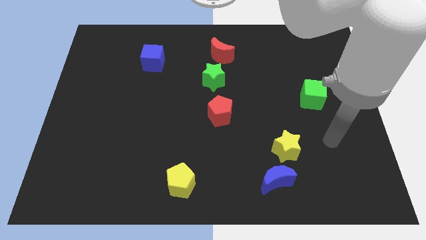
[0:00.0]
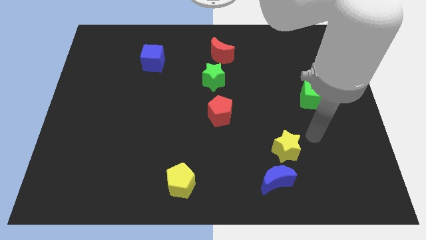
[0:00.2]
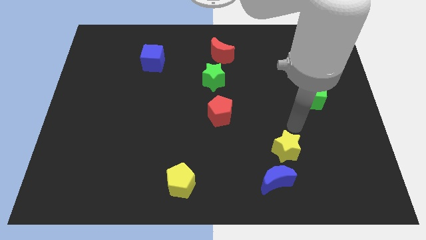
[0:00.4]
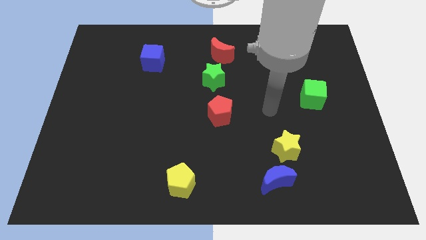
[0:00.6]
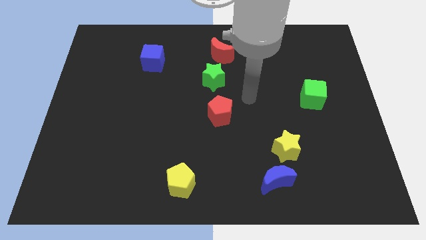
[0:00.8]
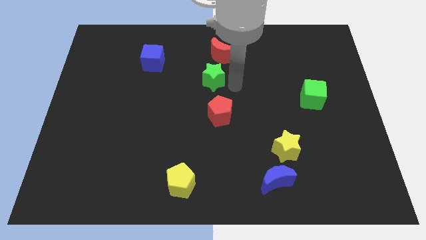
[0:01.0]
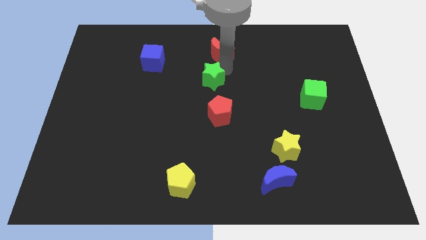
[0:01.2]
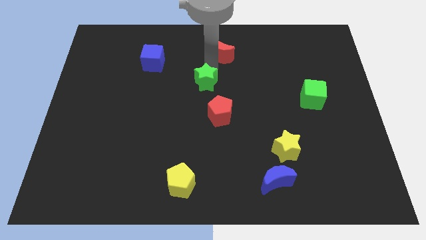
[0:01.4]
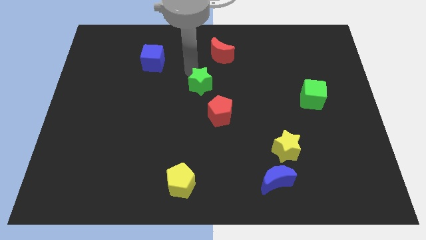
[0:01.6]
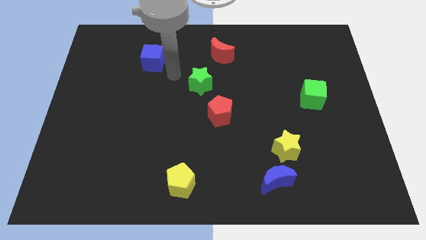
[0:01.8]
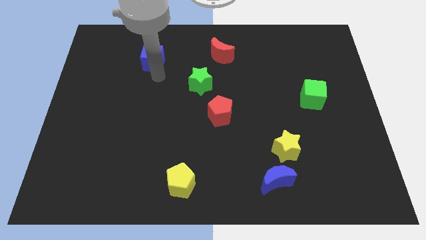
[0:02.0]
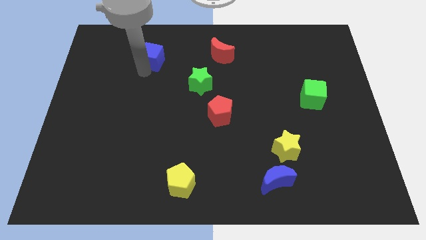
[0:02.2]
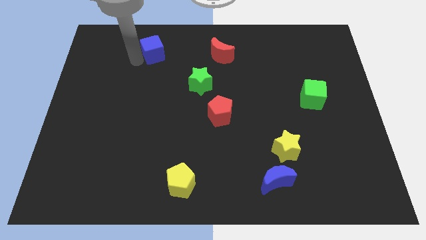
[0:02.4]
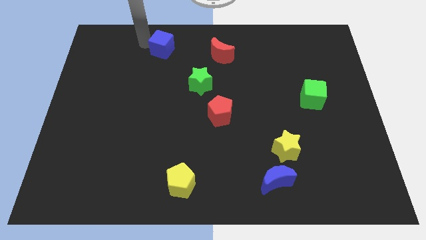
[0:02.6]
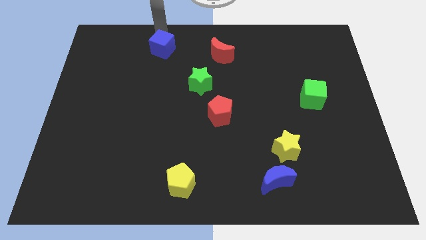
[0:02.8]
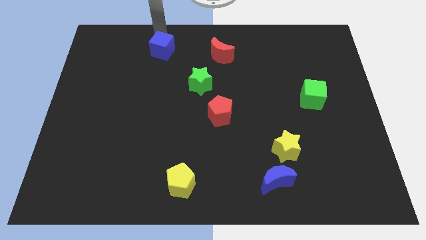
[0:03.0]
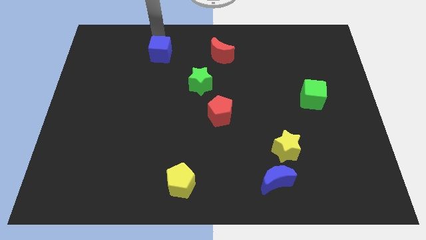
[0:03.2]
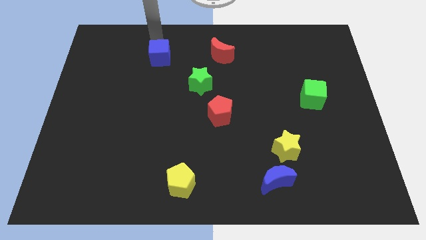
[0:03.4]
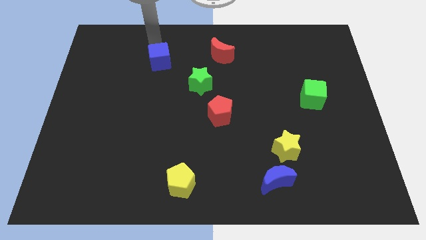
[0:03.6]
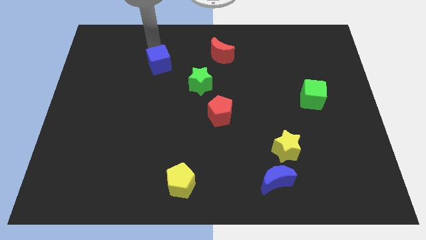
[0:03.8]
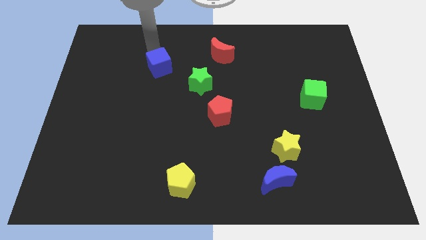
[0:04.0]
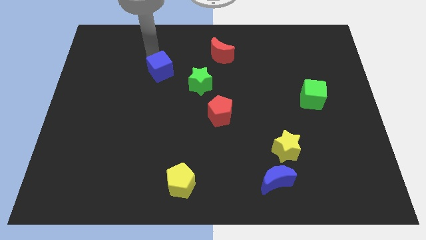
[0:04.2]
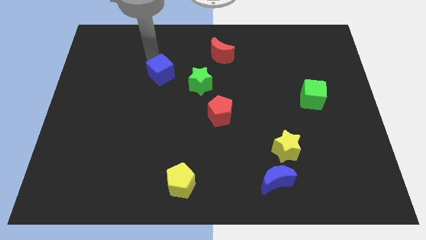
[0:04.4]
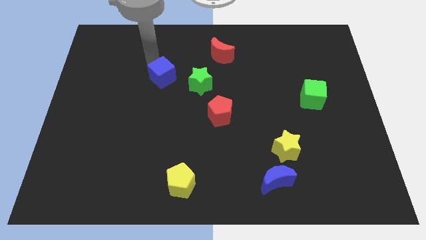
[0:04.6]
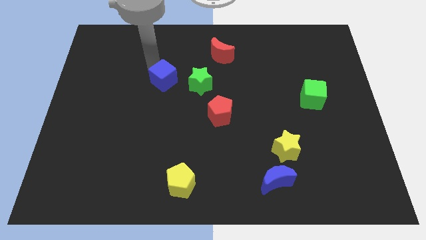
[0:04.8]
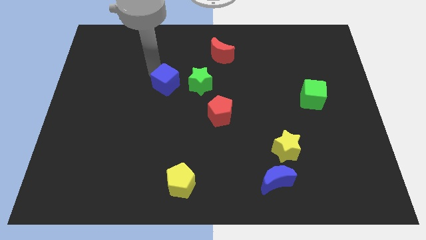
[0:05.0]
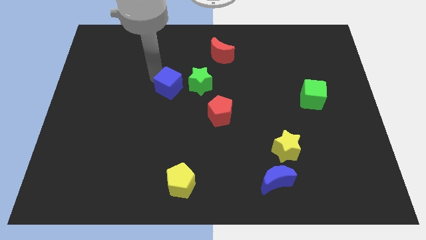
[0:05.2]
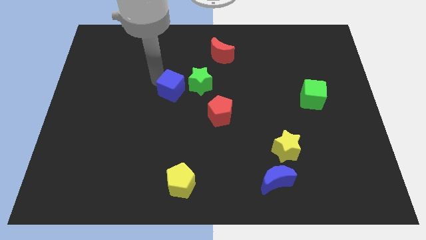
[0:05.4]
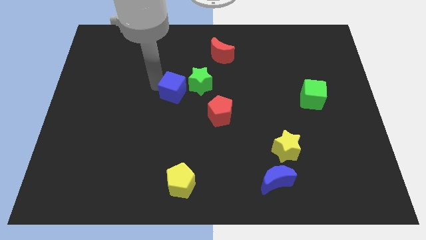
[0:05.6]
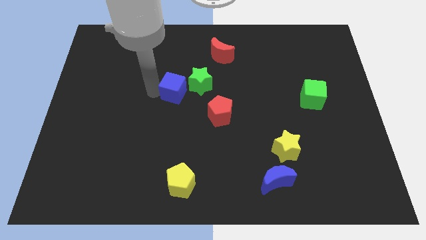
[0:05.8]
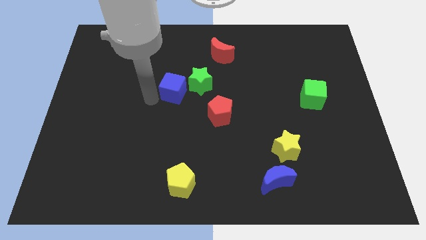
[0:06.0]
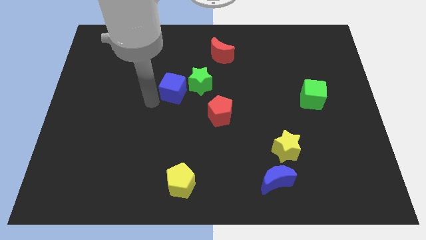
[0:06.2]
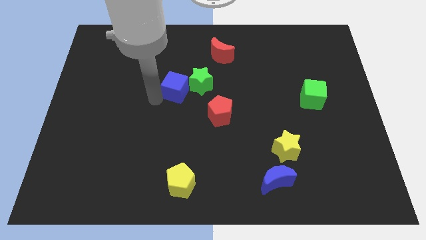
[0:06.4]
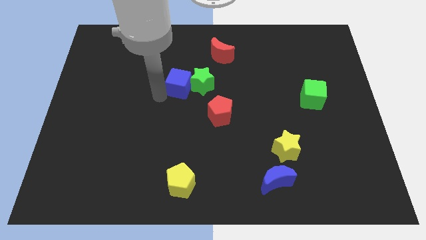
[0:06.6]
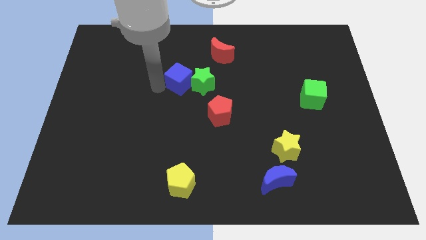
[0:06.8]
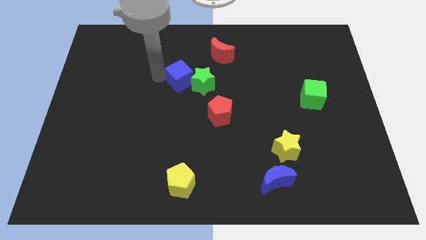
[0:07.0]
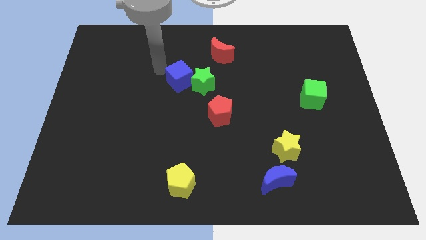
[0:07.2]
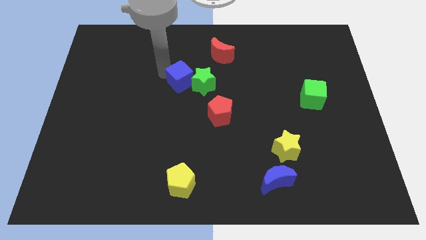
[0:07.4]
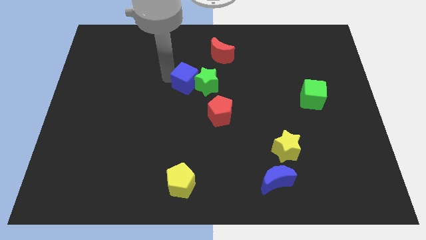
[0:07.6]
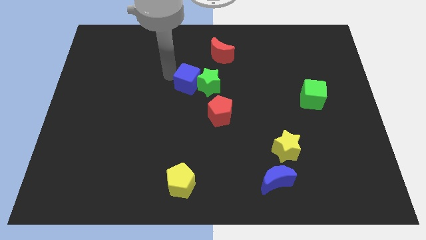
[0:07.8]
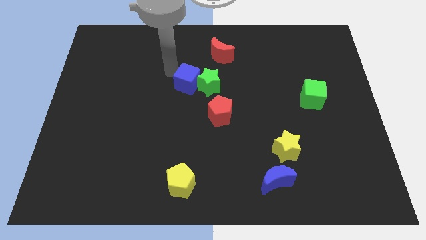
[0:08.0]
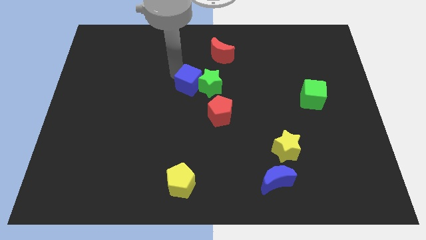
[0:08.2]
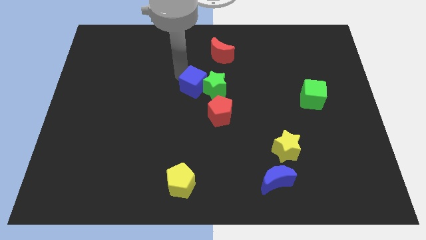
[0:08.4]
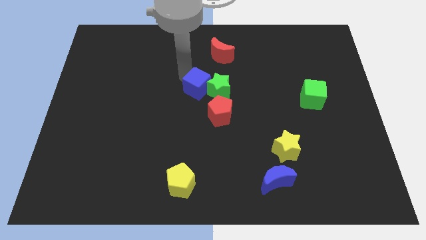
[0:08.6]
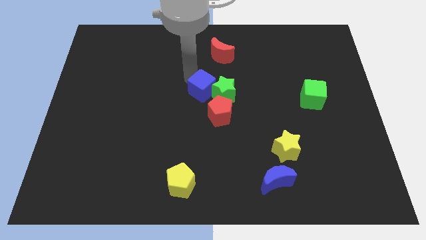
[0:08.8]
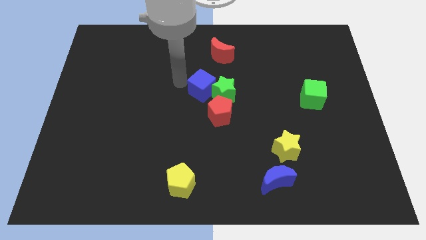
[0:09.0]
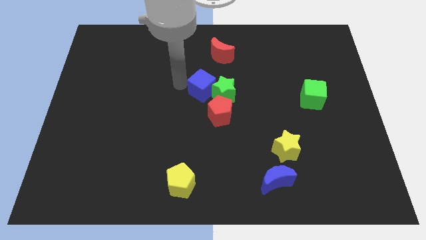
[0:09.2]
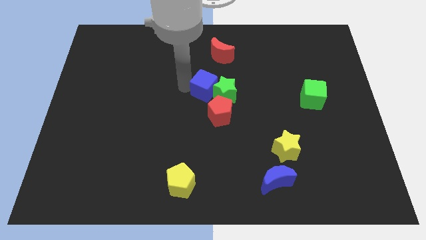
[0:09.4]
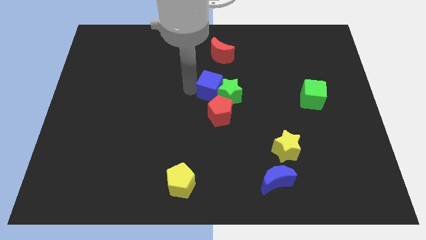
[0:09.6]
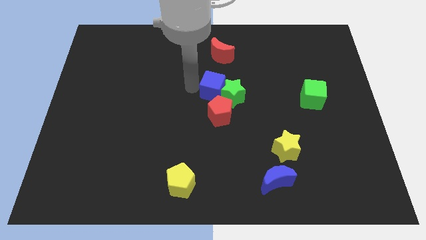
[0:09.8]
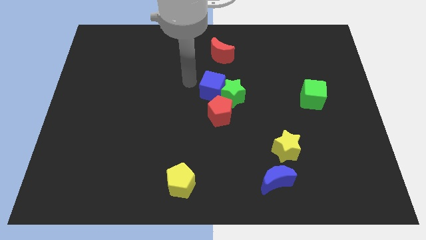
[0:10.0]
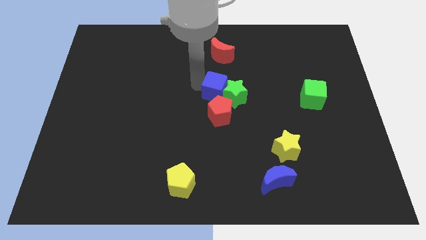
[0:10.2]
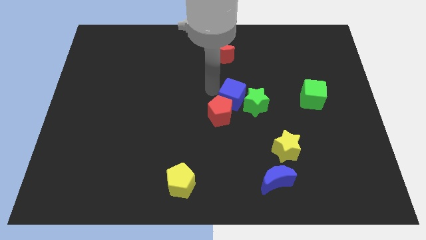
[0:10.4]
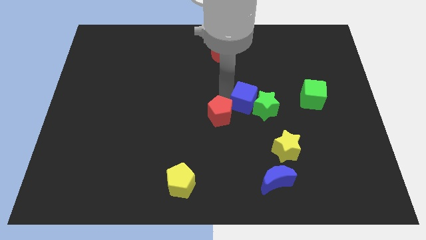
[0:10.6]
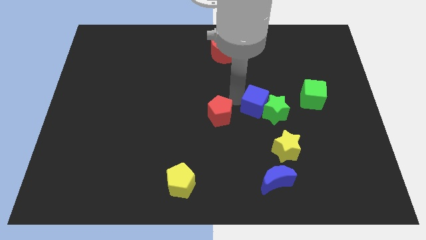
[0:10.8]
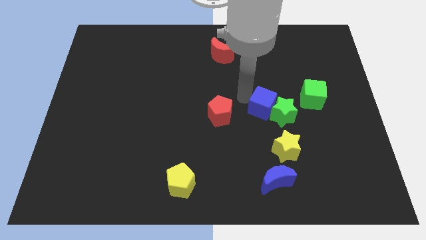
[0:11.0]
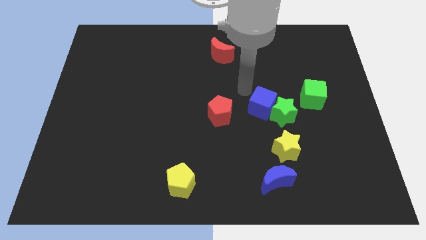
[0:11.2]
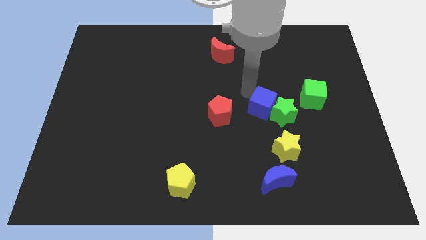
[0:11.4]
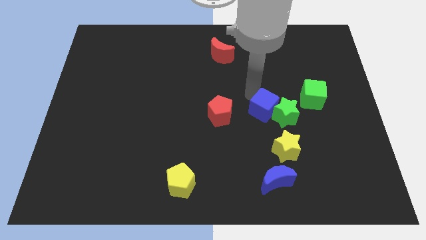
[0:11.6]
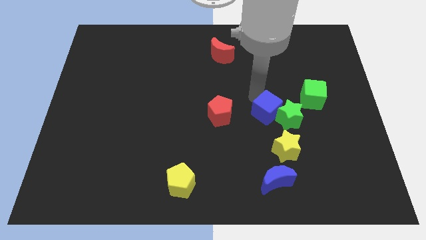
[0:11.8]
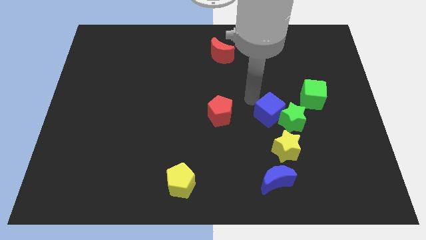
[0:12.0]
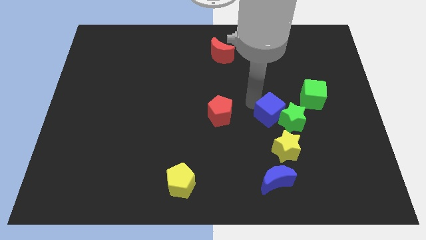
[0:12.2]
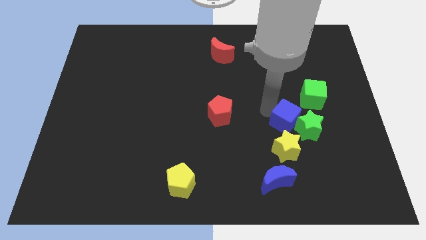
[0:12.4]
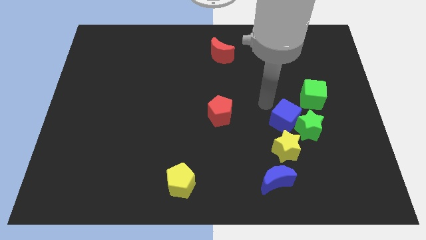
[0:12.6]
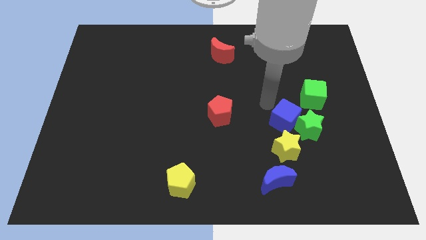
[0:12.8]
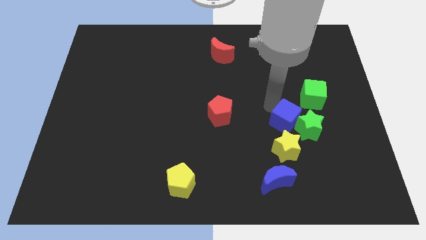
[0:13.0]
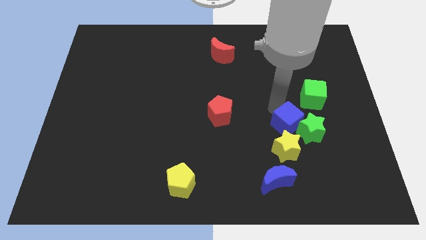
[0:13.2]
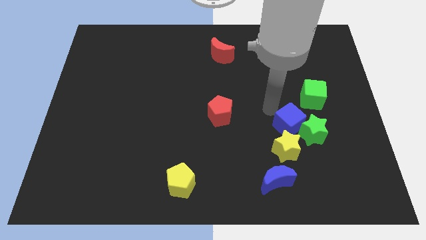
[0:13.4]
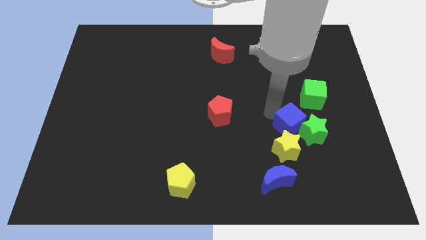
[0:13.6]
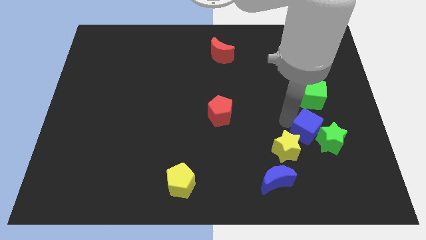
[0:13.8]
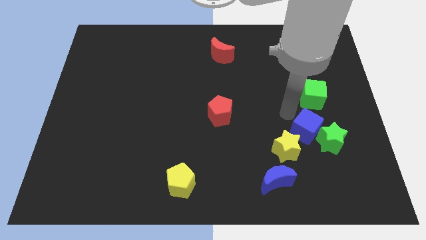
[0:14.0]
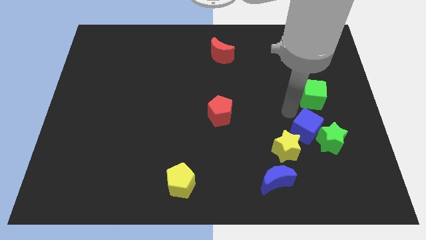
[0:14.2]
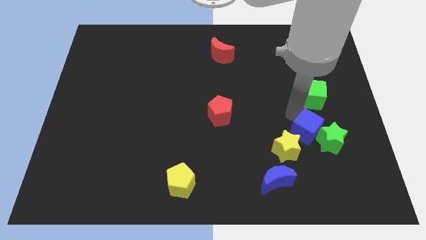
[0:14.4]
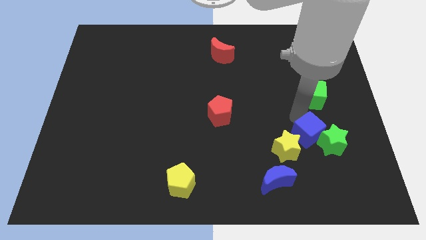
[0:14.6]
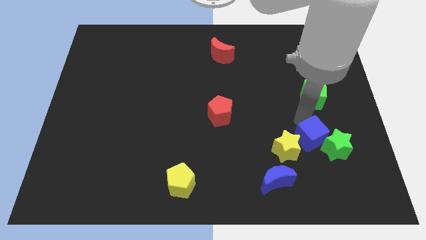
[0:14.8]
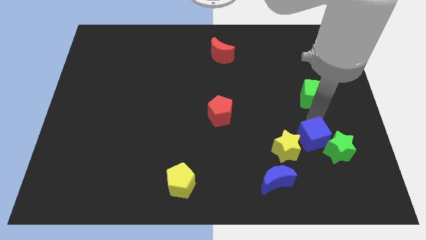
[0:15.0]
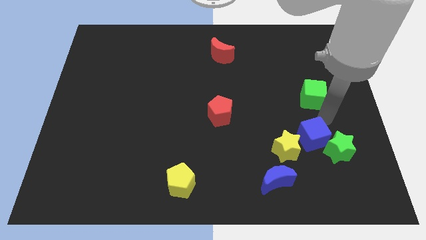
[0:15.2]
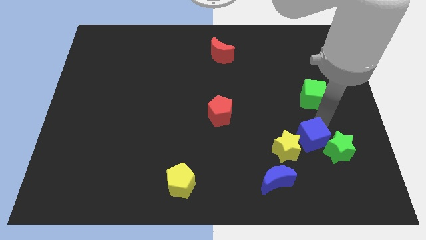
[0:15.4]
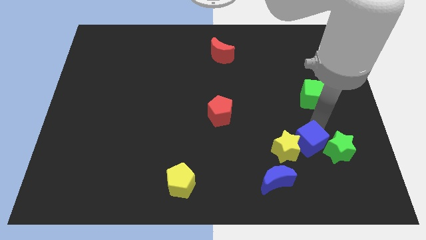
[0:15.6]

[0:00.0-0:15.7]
move the blue cube to the top right of the blue moon
